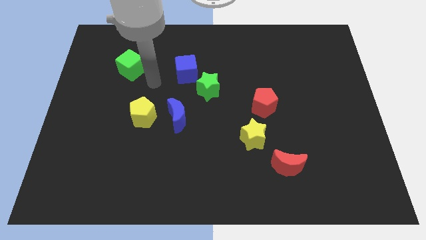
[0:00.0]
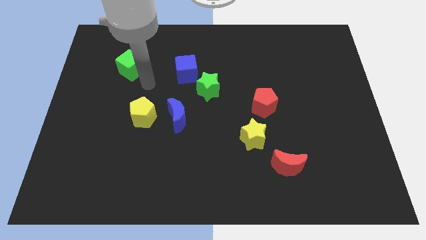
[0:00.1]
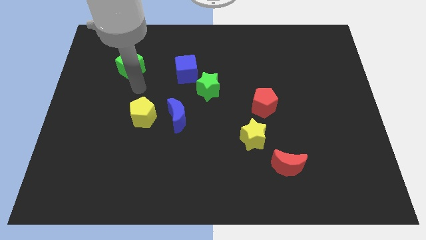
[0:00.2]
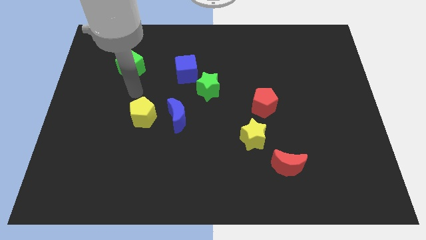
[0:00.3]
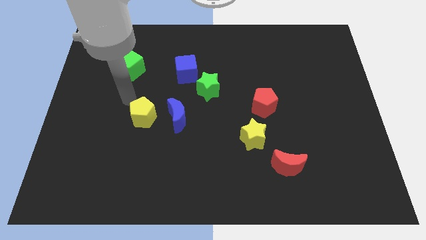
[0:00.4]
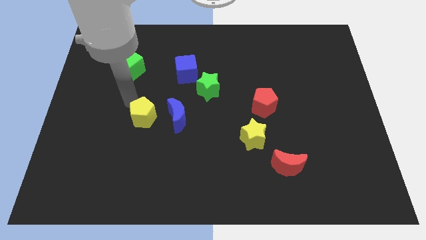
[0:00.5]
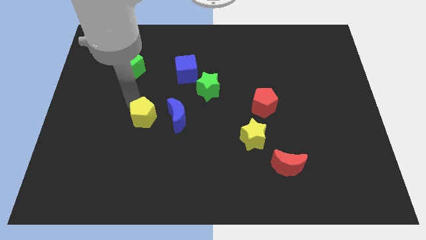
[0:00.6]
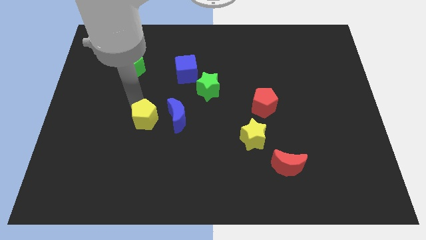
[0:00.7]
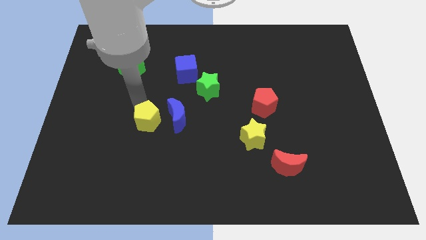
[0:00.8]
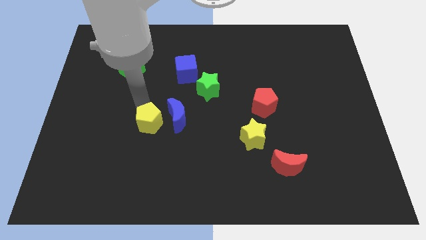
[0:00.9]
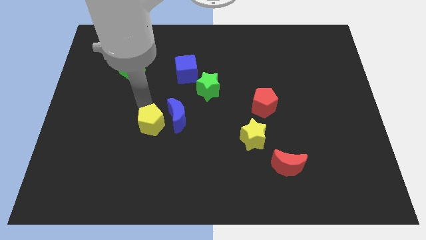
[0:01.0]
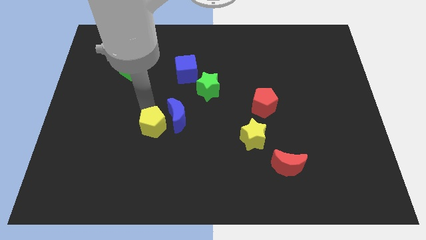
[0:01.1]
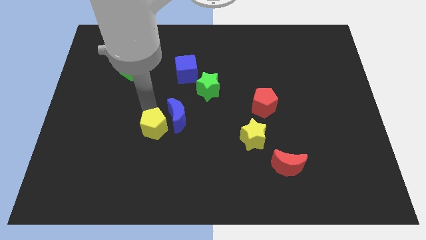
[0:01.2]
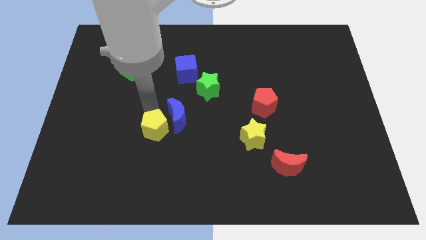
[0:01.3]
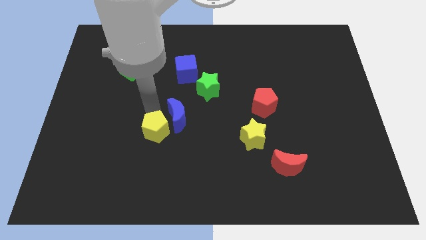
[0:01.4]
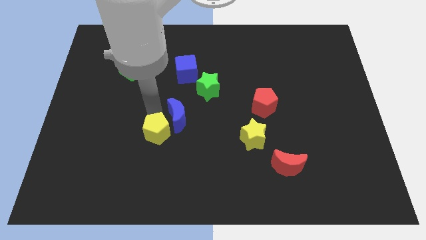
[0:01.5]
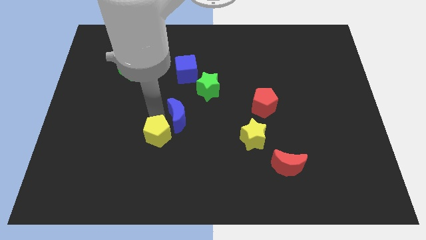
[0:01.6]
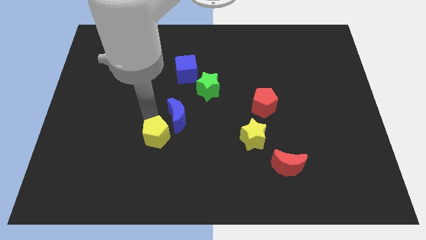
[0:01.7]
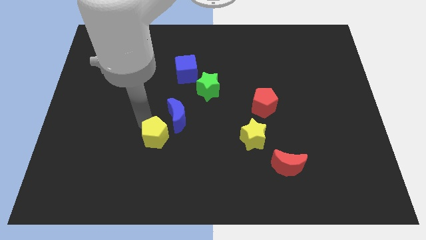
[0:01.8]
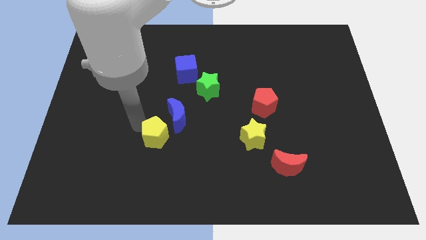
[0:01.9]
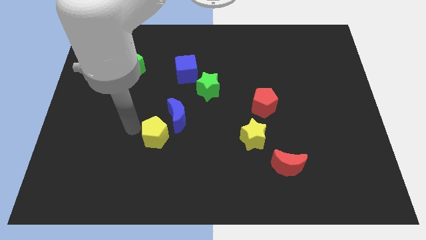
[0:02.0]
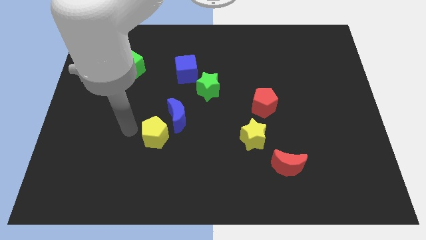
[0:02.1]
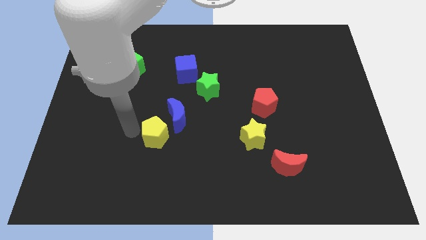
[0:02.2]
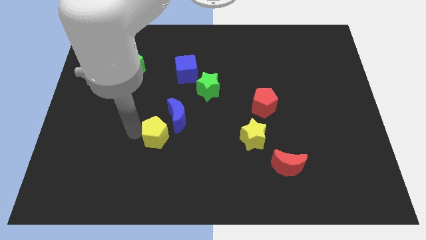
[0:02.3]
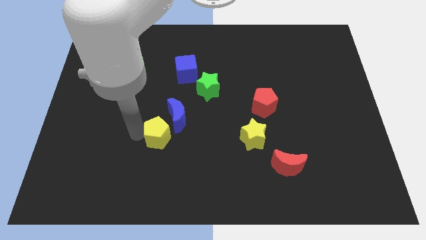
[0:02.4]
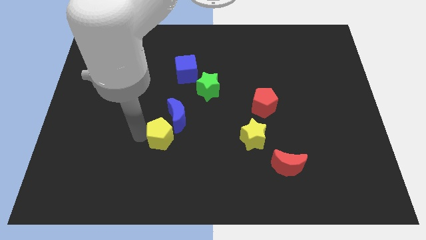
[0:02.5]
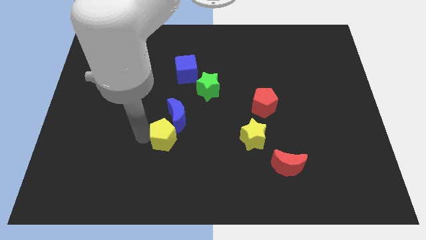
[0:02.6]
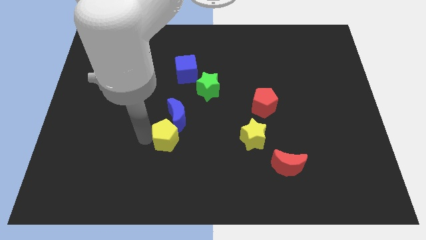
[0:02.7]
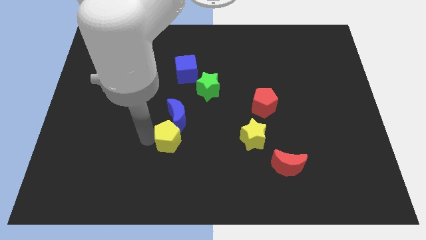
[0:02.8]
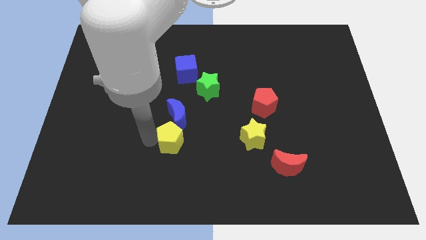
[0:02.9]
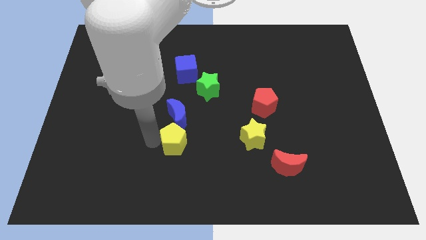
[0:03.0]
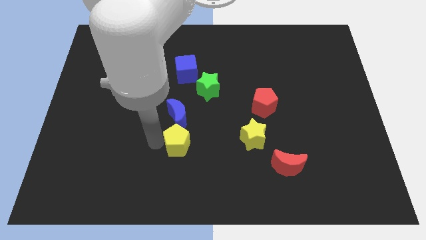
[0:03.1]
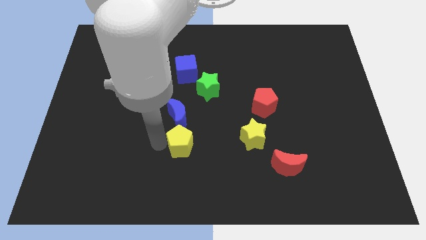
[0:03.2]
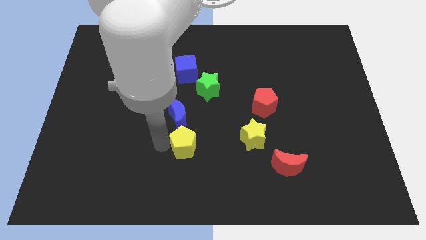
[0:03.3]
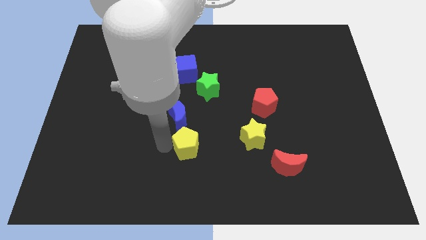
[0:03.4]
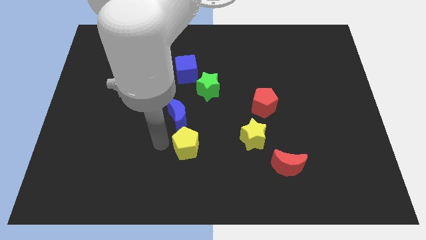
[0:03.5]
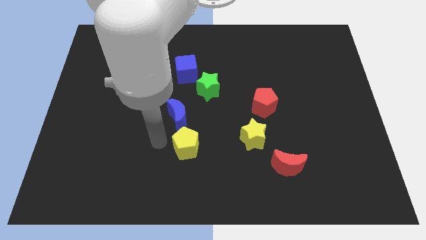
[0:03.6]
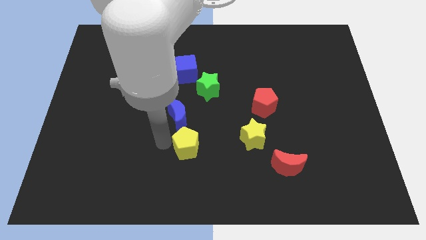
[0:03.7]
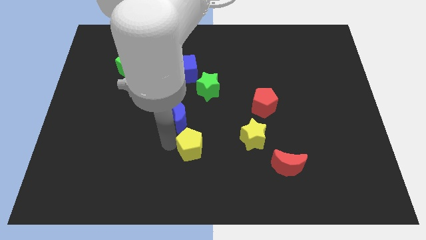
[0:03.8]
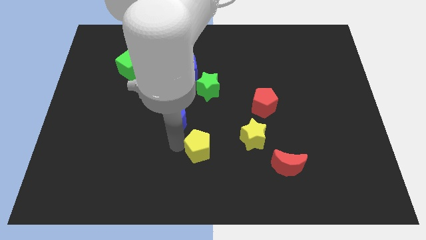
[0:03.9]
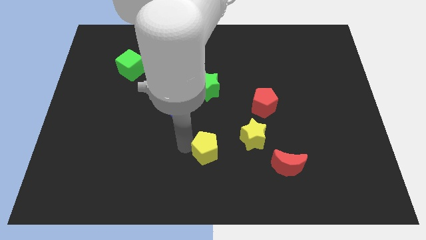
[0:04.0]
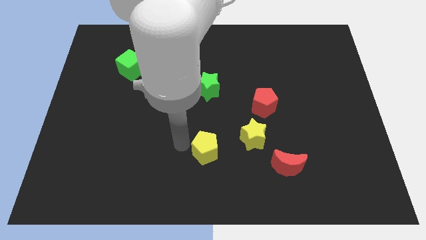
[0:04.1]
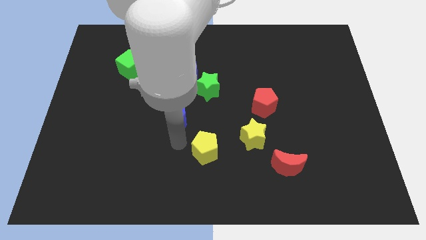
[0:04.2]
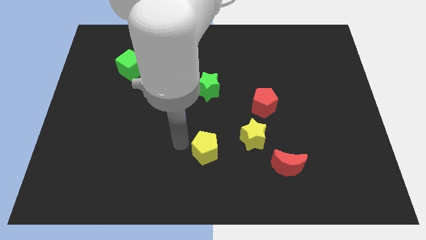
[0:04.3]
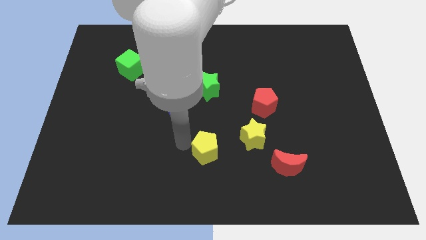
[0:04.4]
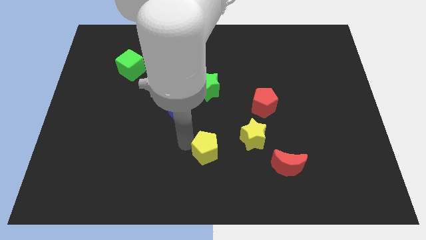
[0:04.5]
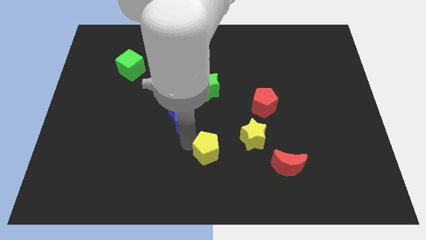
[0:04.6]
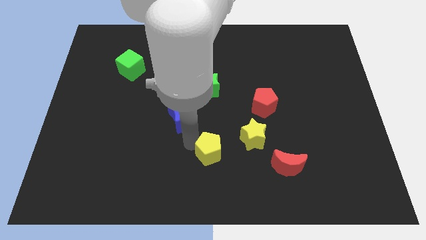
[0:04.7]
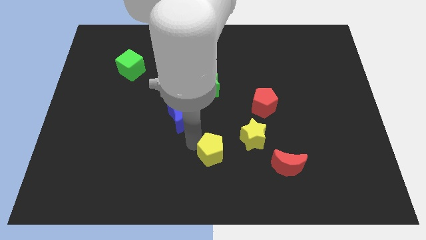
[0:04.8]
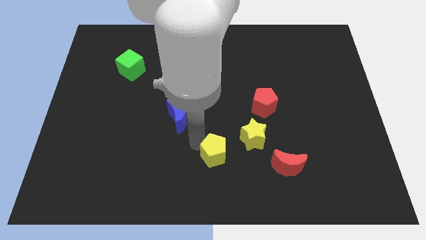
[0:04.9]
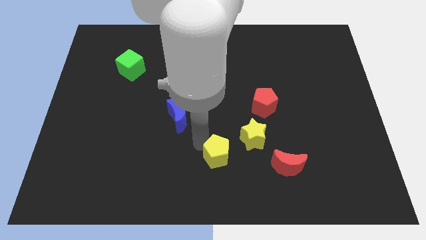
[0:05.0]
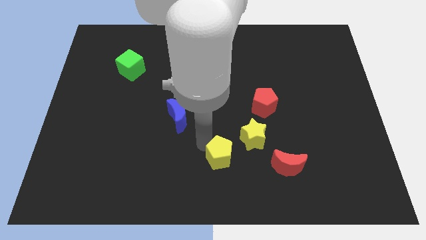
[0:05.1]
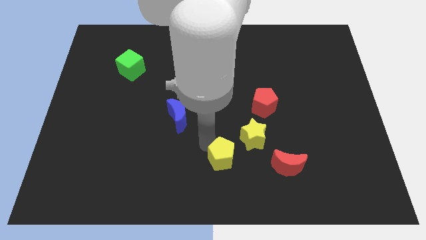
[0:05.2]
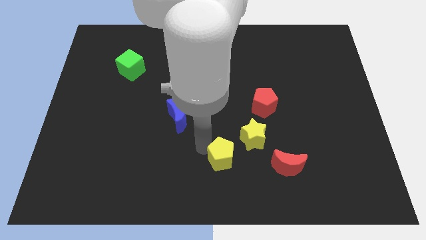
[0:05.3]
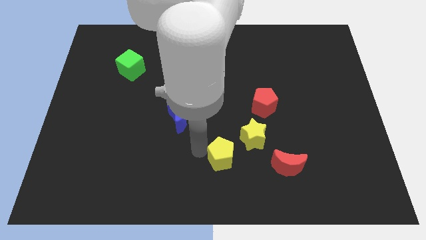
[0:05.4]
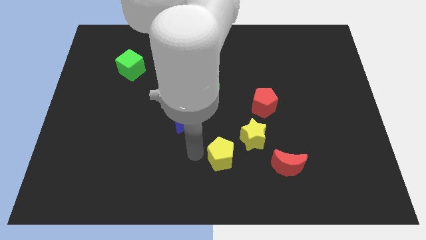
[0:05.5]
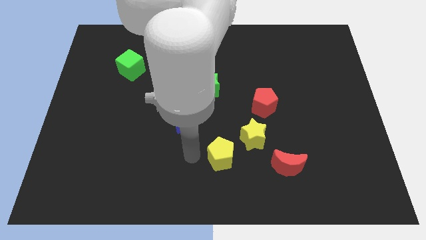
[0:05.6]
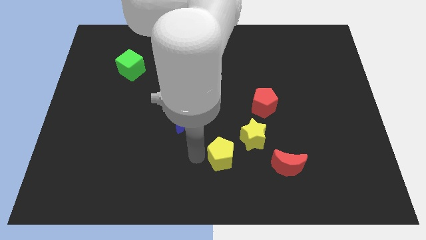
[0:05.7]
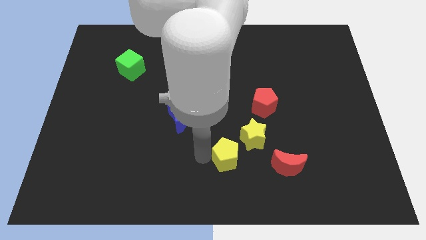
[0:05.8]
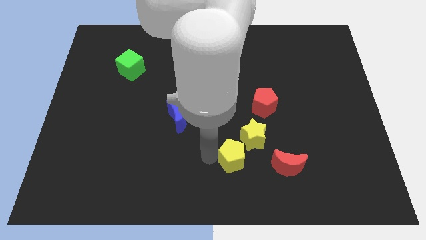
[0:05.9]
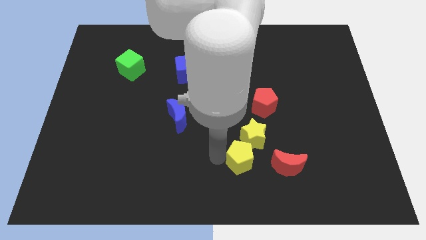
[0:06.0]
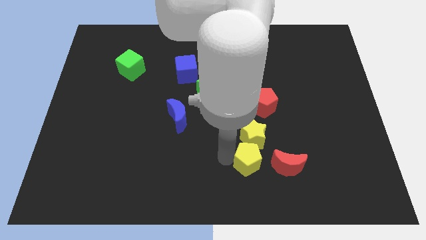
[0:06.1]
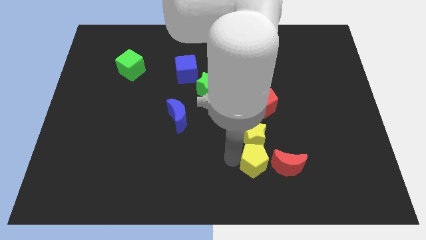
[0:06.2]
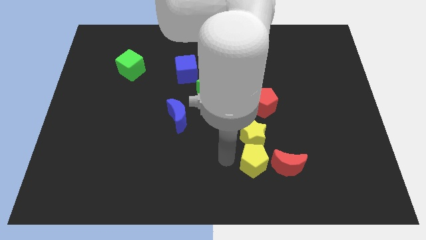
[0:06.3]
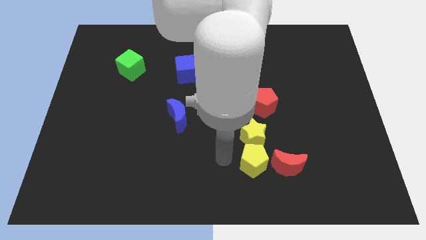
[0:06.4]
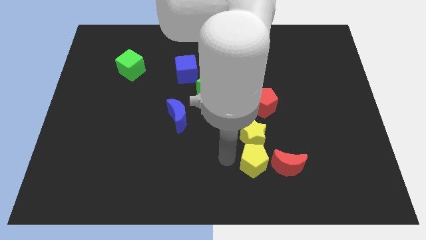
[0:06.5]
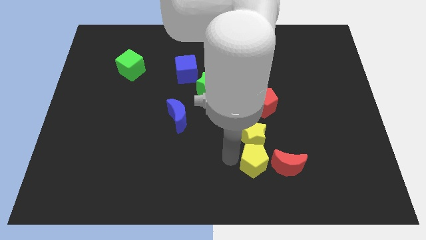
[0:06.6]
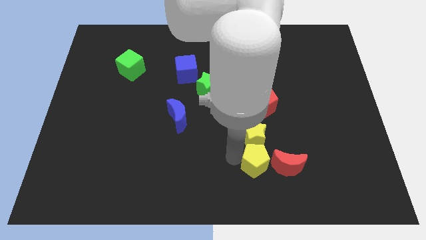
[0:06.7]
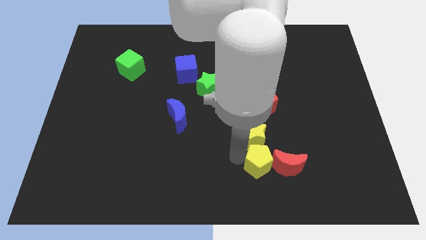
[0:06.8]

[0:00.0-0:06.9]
slide the yellow pentagon close to the red moon

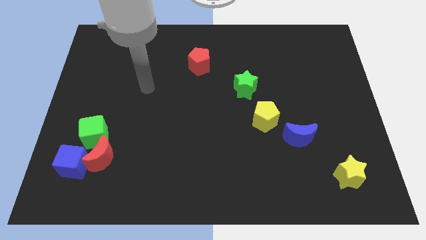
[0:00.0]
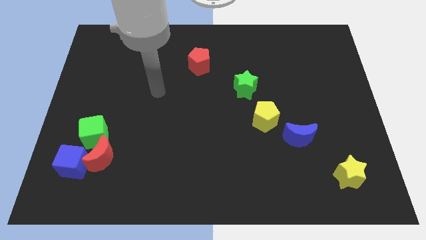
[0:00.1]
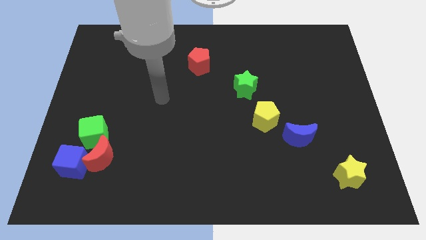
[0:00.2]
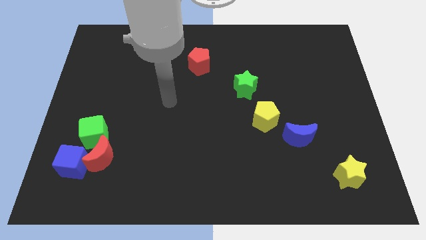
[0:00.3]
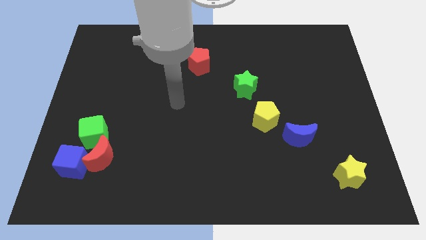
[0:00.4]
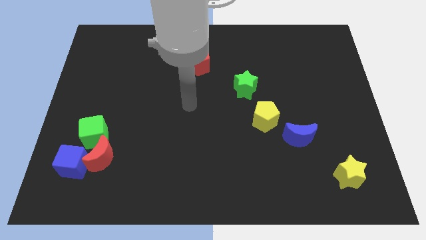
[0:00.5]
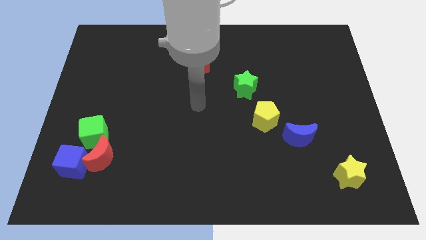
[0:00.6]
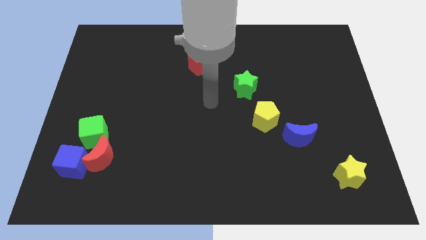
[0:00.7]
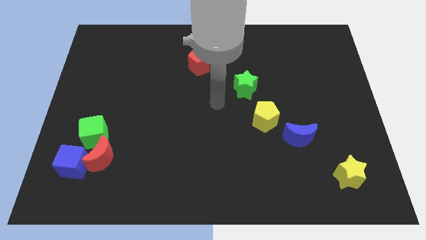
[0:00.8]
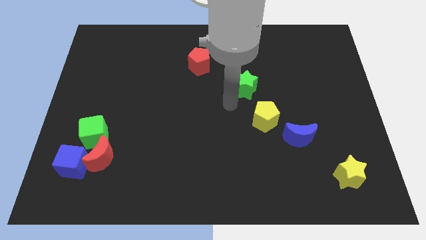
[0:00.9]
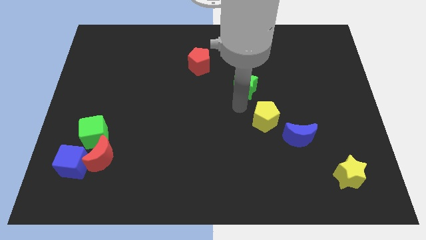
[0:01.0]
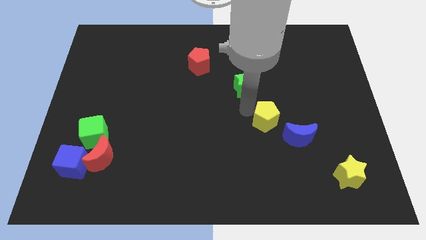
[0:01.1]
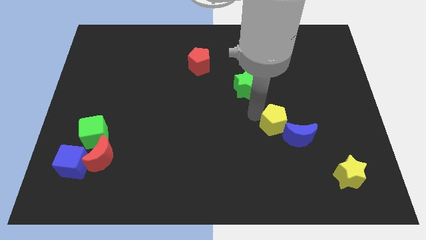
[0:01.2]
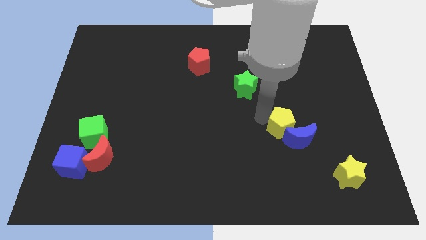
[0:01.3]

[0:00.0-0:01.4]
push the yellow pentagon close to the blue moon

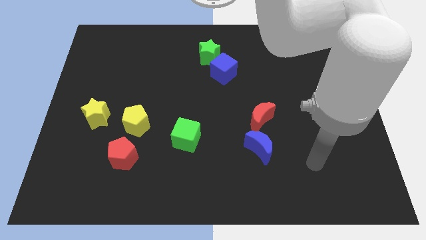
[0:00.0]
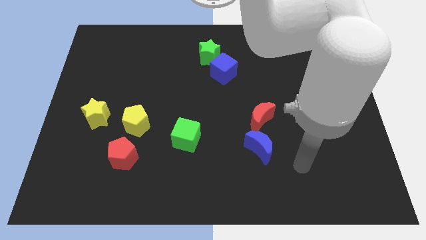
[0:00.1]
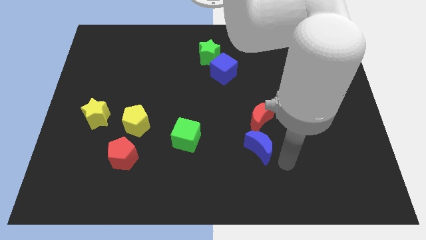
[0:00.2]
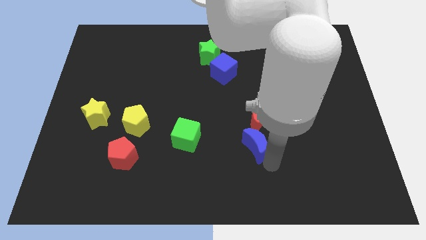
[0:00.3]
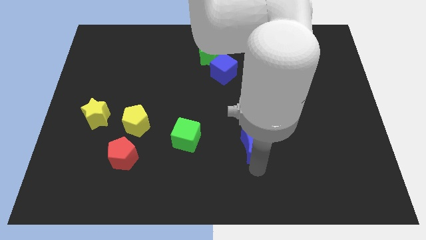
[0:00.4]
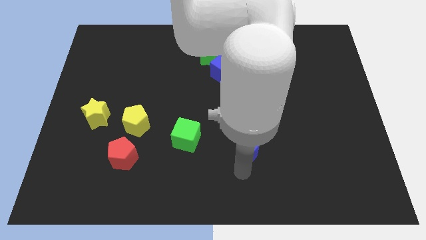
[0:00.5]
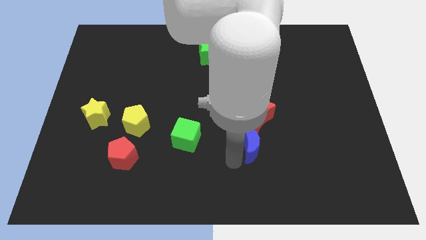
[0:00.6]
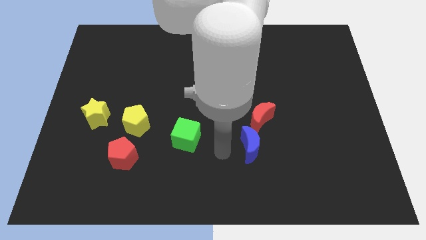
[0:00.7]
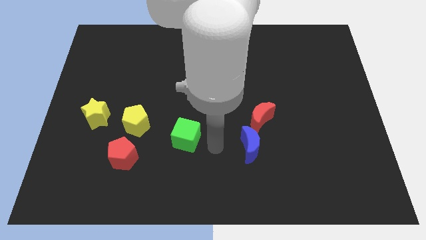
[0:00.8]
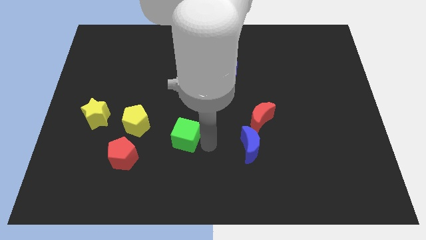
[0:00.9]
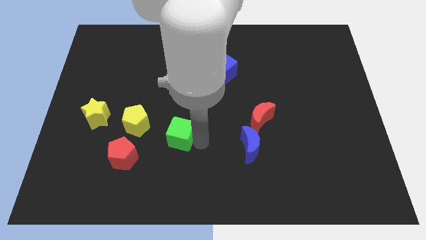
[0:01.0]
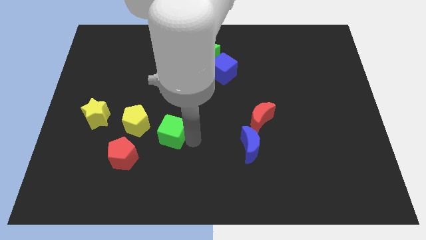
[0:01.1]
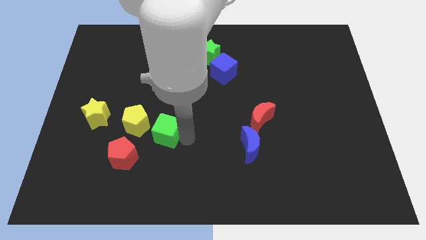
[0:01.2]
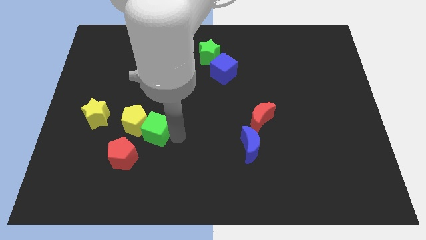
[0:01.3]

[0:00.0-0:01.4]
move the green cube close to the yellow pentagon
